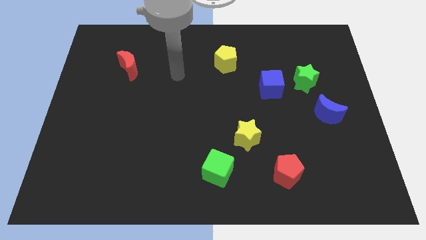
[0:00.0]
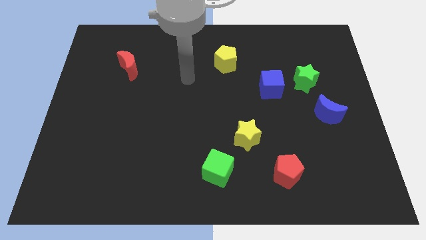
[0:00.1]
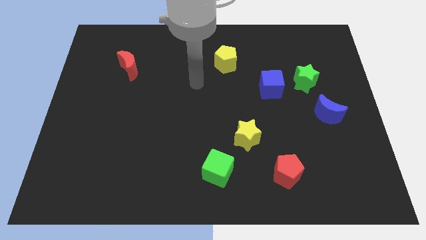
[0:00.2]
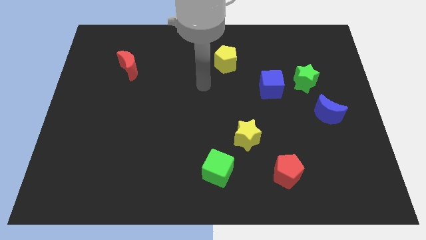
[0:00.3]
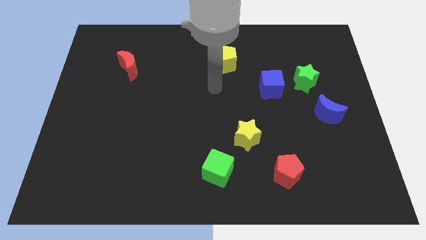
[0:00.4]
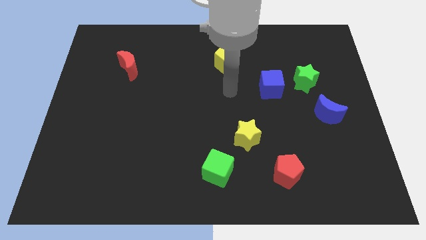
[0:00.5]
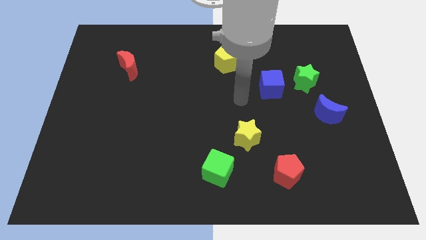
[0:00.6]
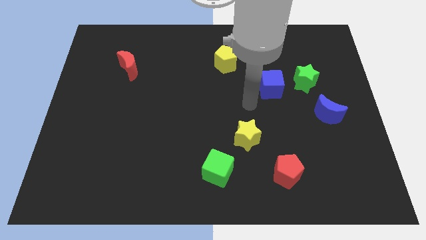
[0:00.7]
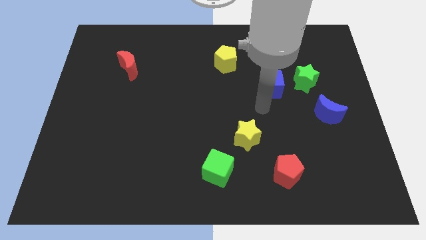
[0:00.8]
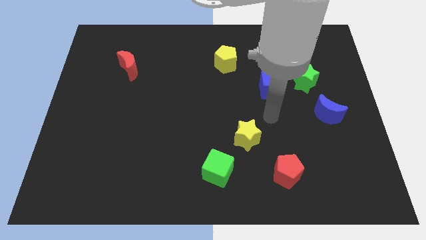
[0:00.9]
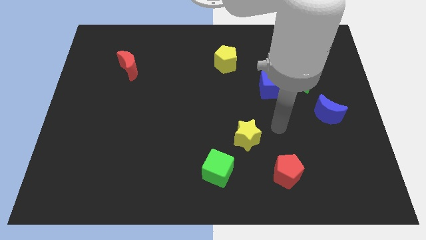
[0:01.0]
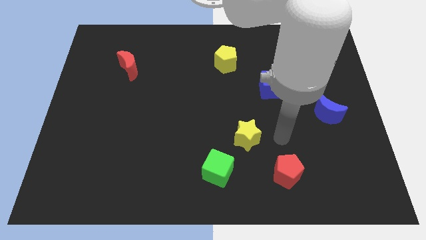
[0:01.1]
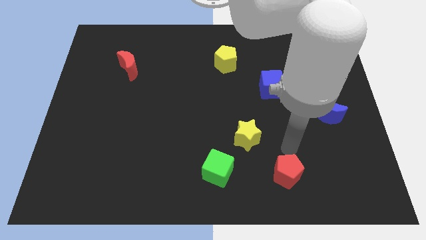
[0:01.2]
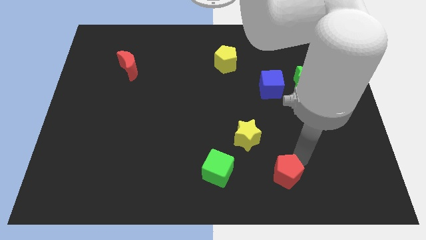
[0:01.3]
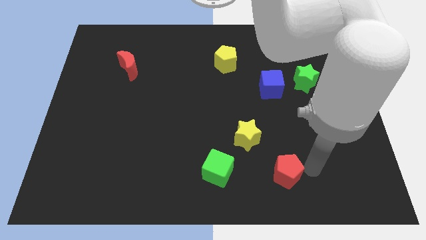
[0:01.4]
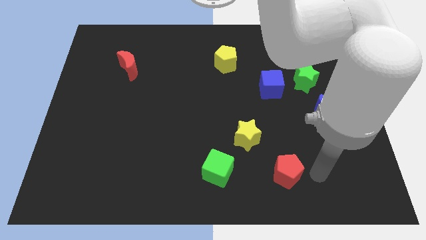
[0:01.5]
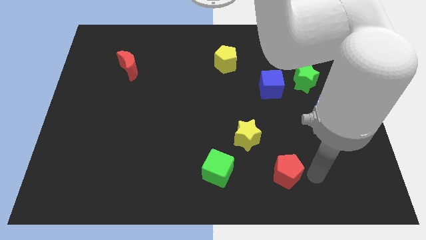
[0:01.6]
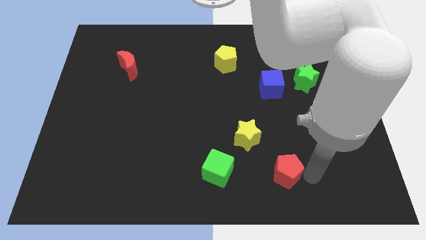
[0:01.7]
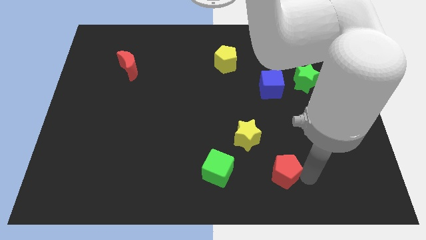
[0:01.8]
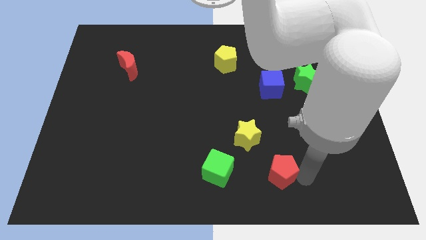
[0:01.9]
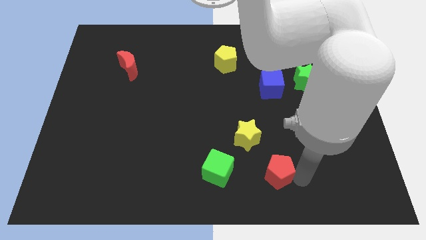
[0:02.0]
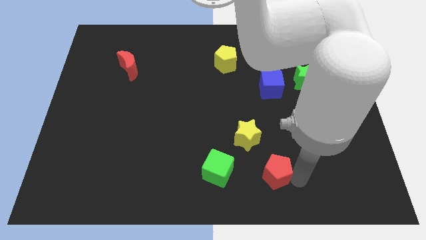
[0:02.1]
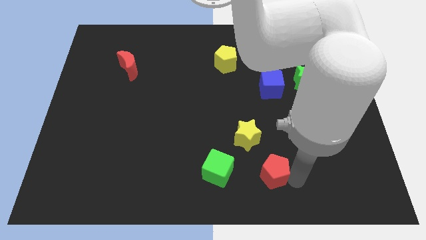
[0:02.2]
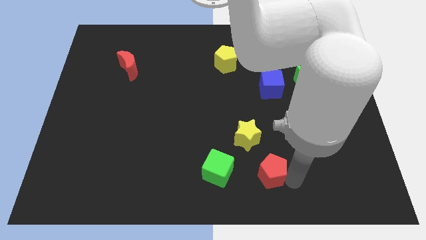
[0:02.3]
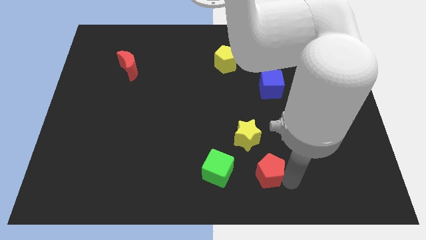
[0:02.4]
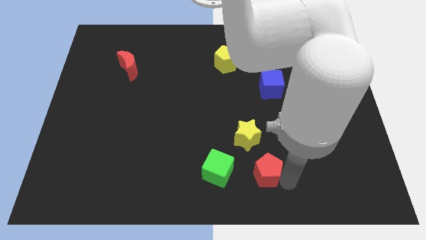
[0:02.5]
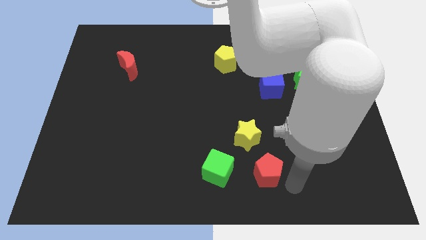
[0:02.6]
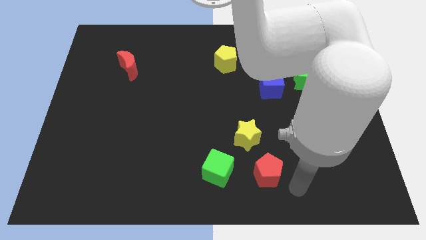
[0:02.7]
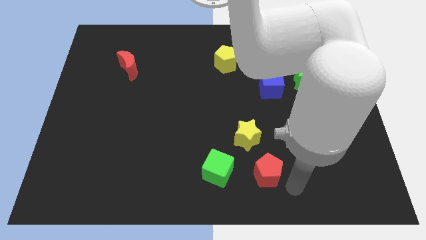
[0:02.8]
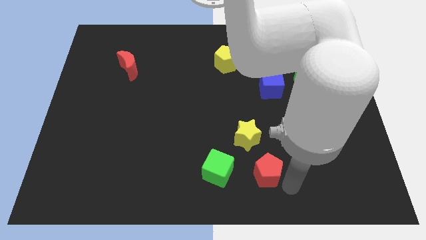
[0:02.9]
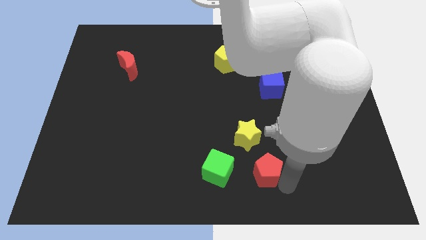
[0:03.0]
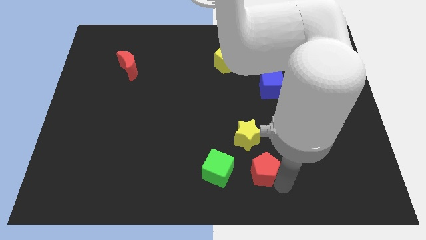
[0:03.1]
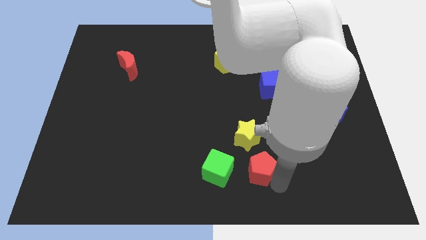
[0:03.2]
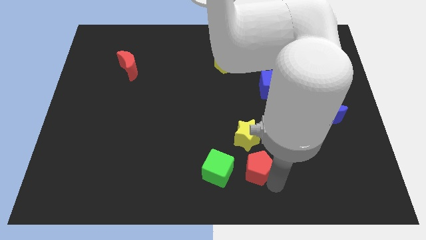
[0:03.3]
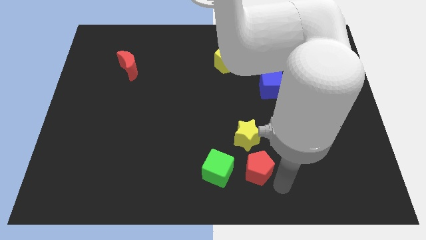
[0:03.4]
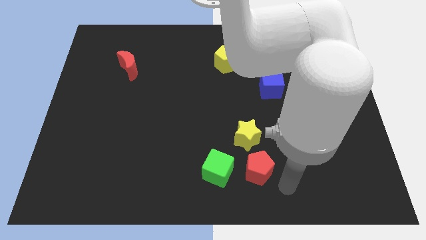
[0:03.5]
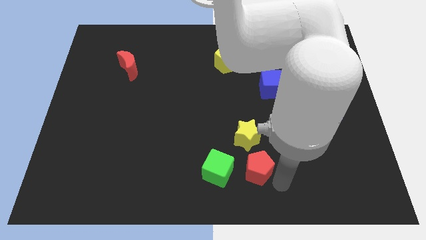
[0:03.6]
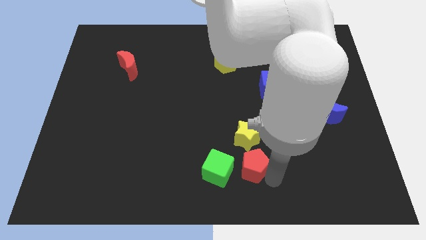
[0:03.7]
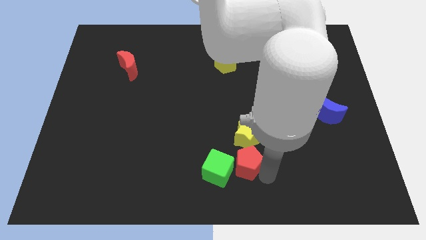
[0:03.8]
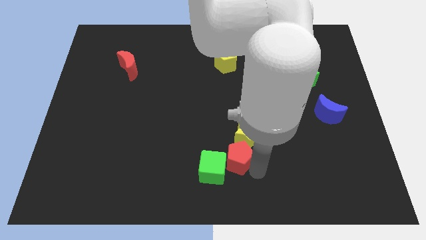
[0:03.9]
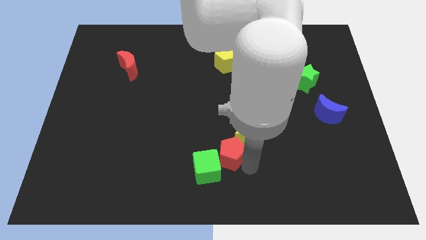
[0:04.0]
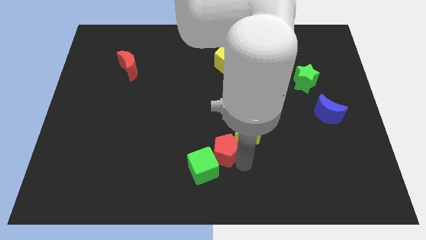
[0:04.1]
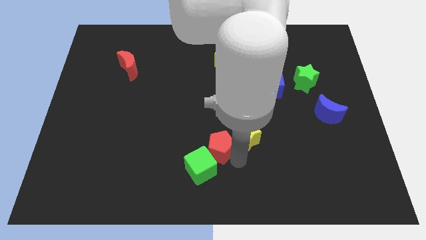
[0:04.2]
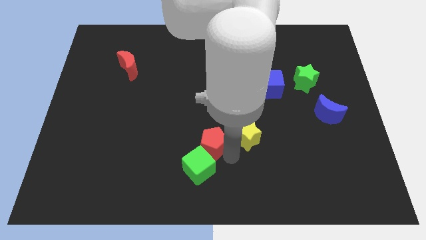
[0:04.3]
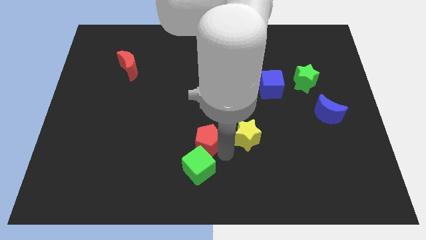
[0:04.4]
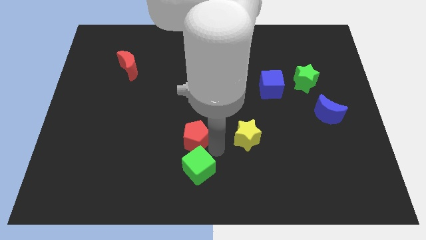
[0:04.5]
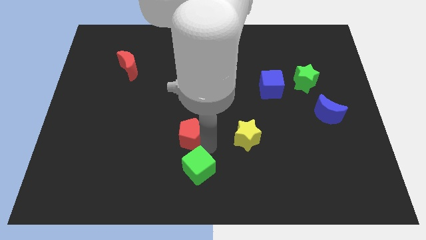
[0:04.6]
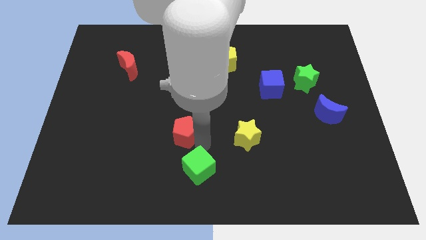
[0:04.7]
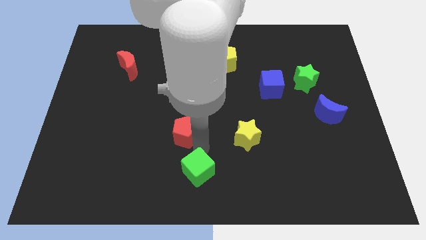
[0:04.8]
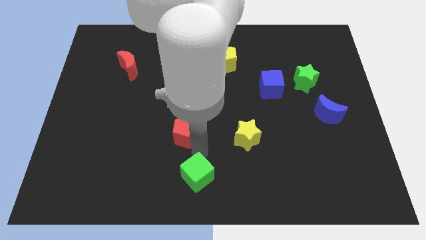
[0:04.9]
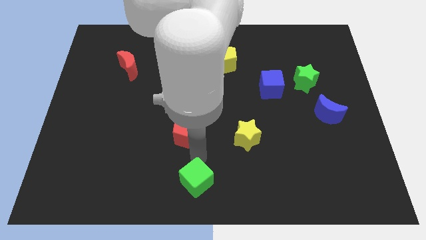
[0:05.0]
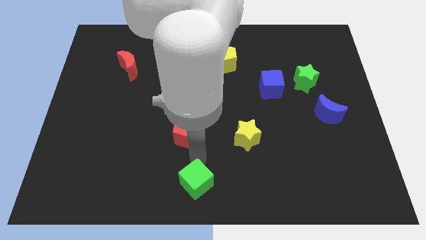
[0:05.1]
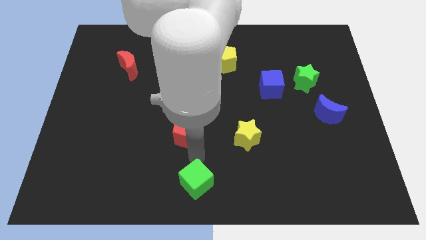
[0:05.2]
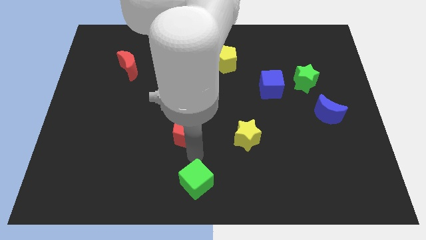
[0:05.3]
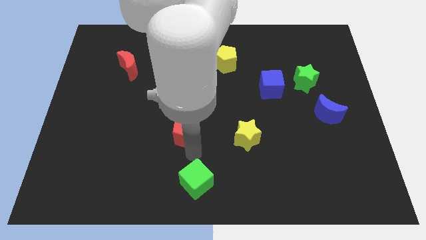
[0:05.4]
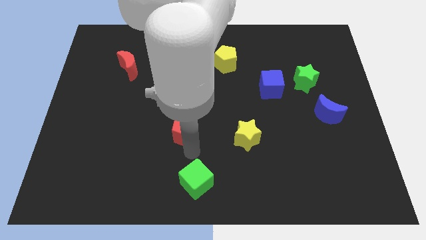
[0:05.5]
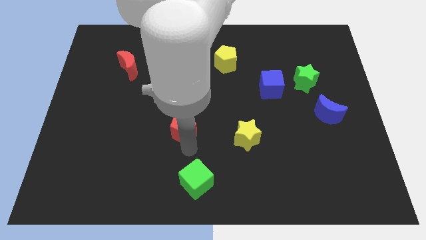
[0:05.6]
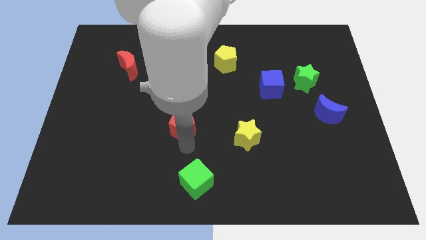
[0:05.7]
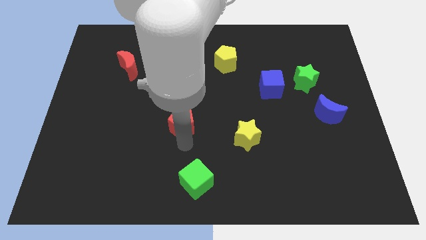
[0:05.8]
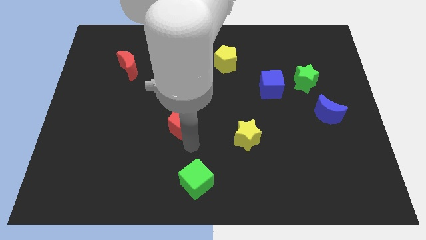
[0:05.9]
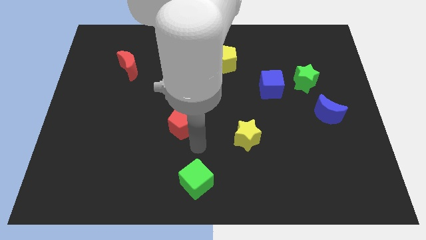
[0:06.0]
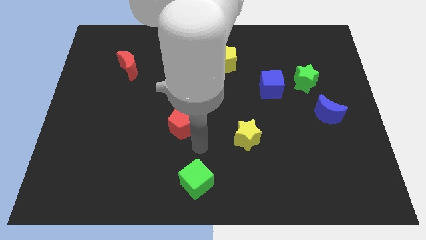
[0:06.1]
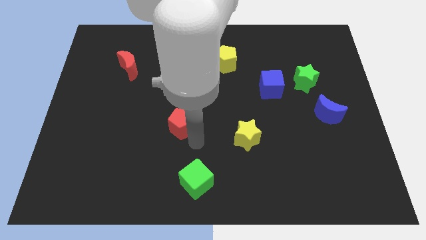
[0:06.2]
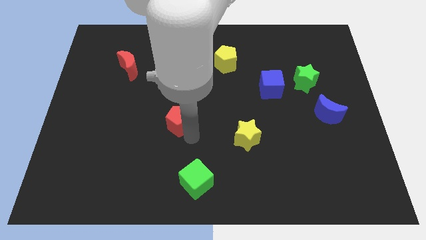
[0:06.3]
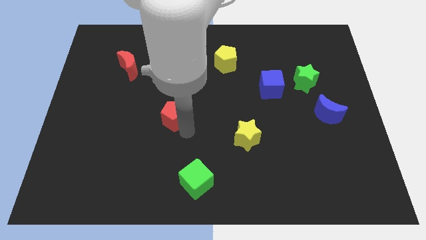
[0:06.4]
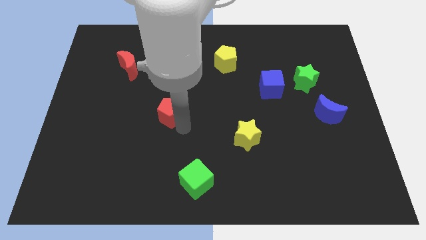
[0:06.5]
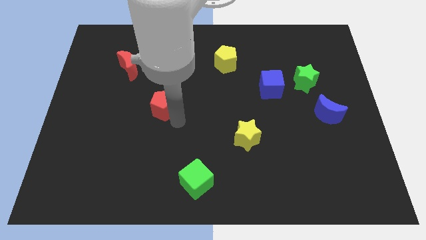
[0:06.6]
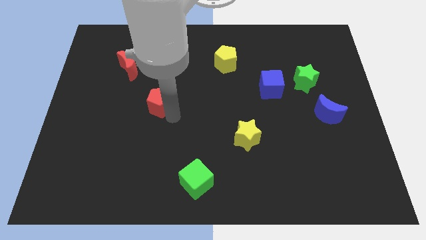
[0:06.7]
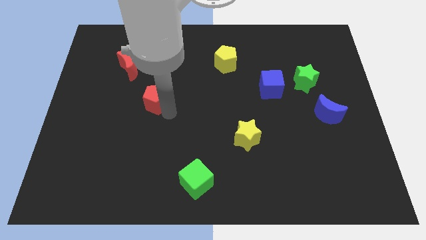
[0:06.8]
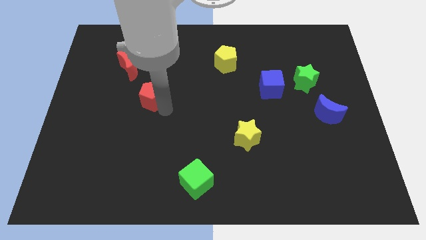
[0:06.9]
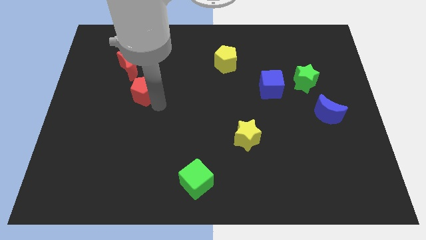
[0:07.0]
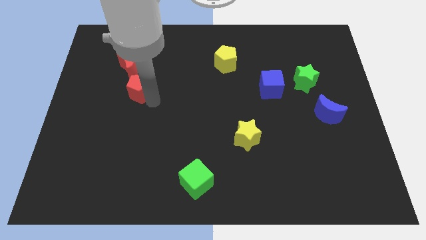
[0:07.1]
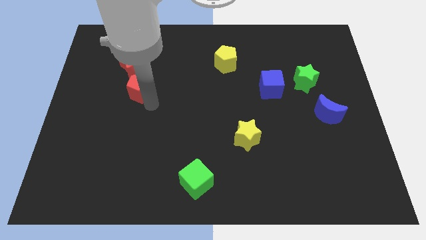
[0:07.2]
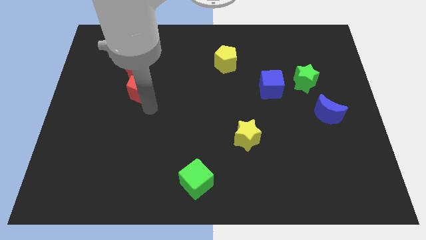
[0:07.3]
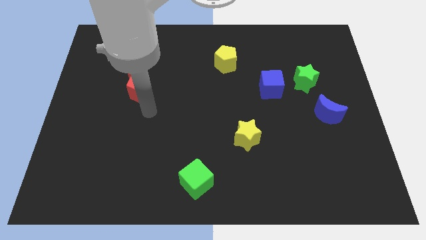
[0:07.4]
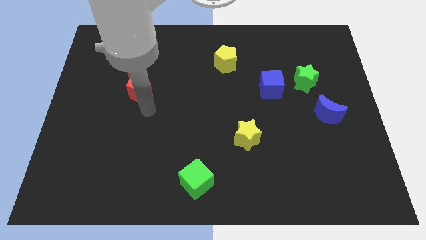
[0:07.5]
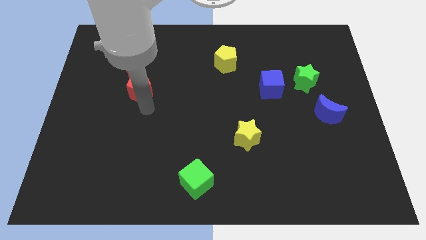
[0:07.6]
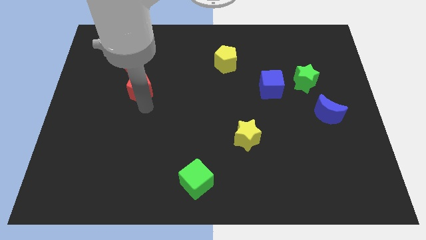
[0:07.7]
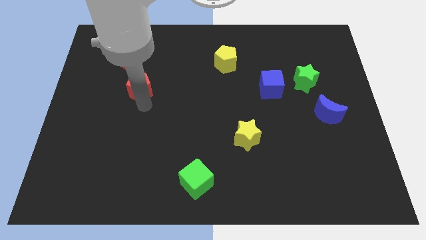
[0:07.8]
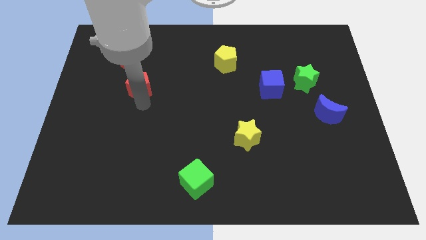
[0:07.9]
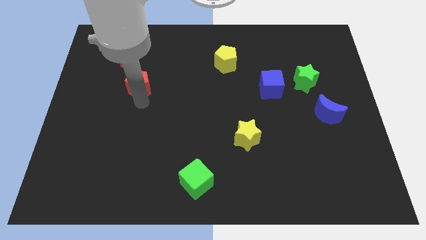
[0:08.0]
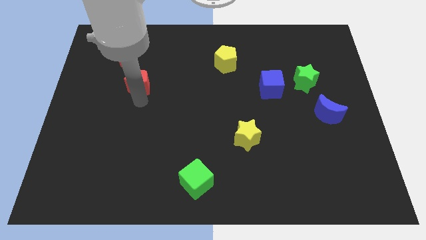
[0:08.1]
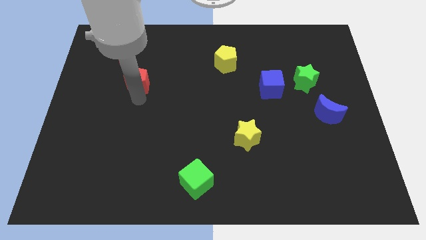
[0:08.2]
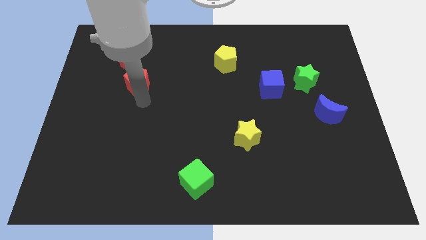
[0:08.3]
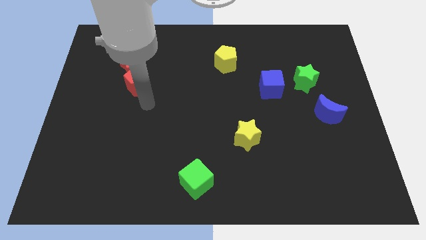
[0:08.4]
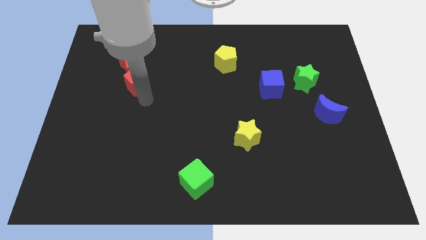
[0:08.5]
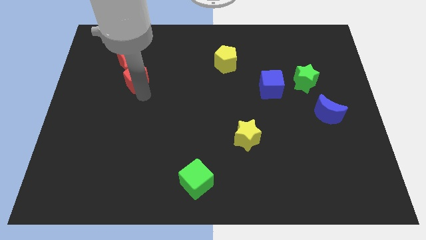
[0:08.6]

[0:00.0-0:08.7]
move the red pentagon close to the red moon
